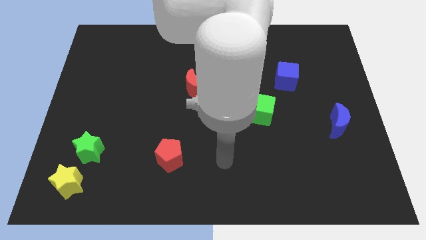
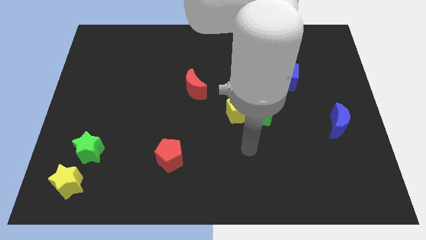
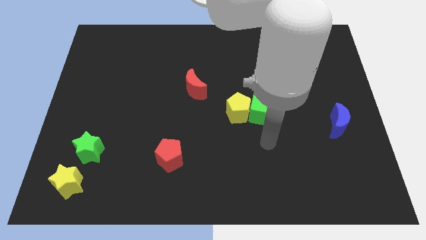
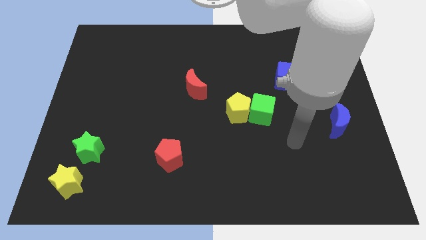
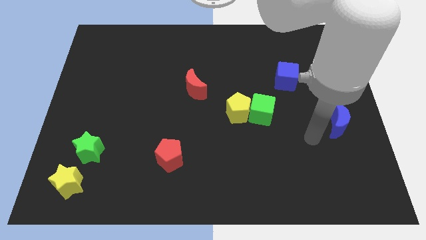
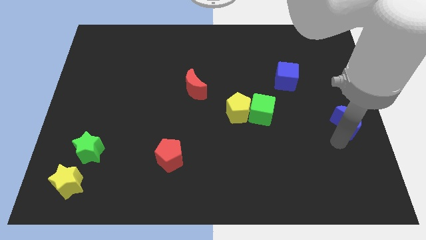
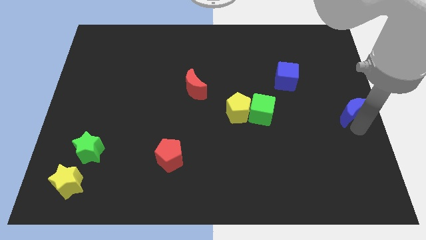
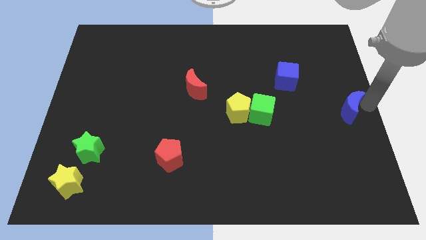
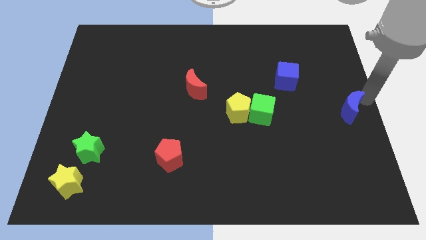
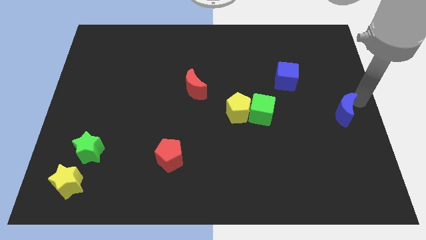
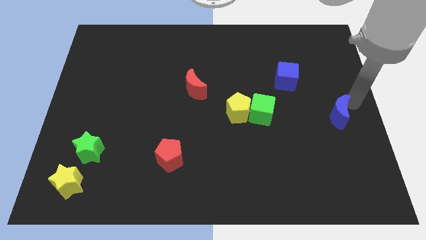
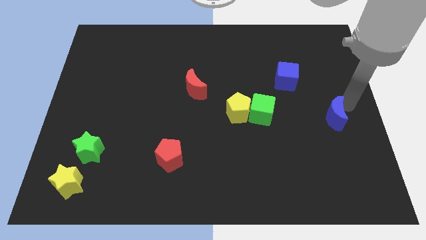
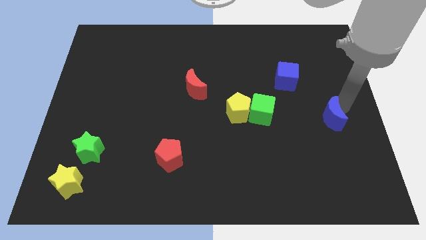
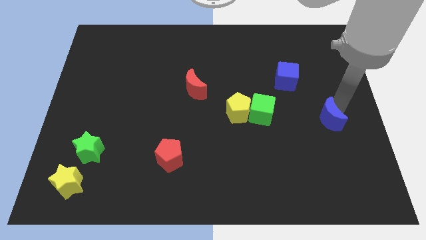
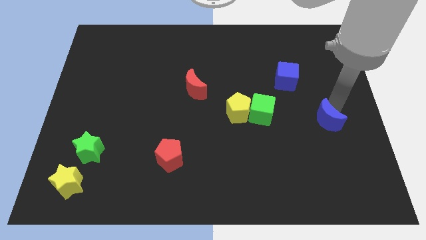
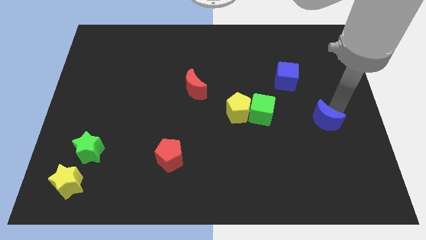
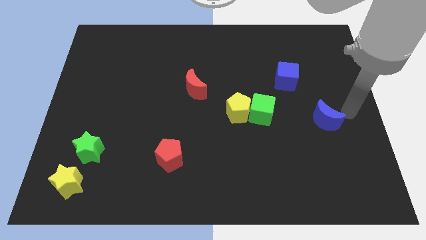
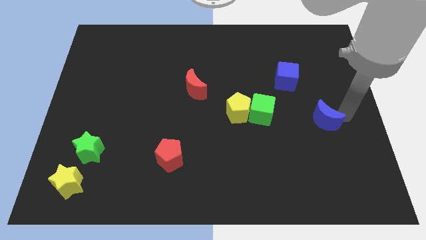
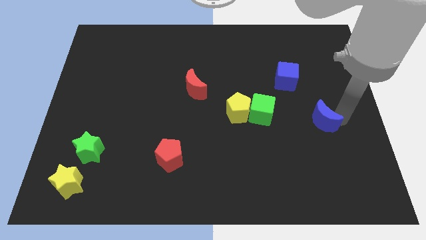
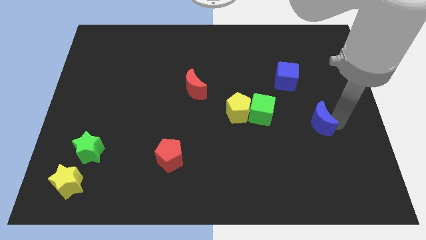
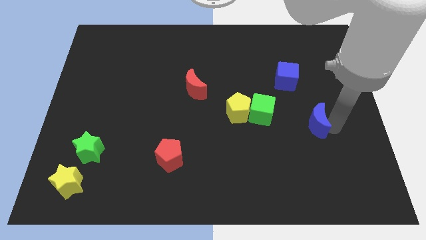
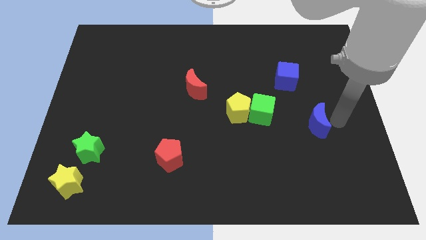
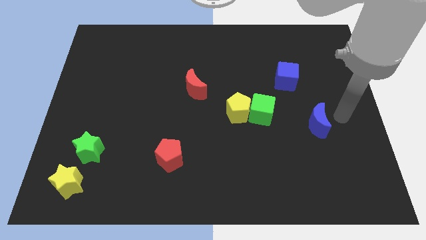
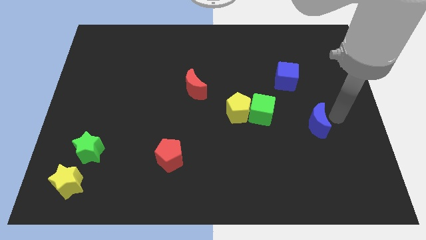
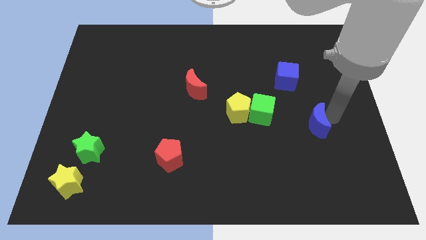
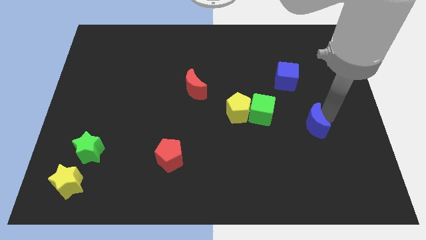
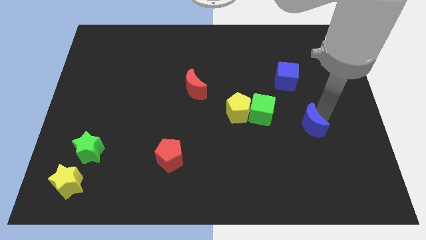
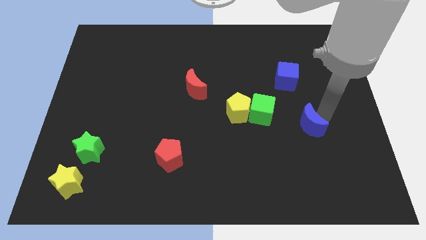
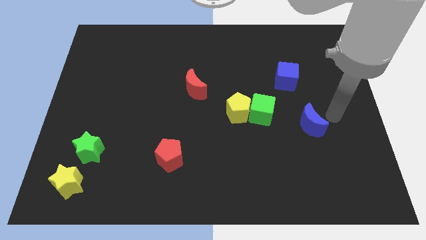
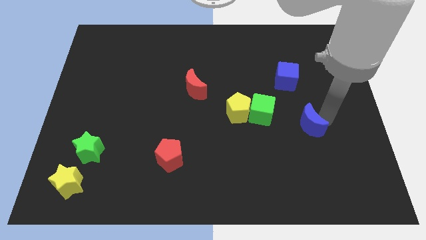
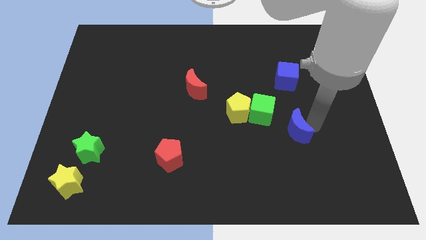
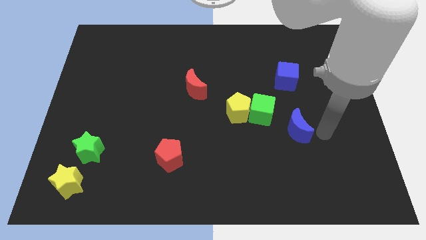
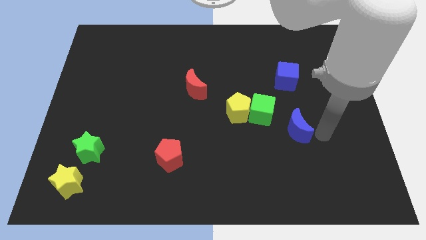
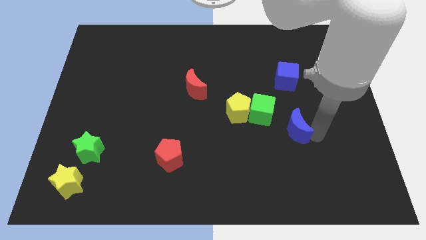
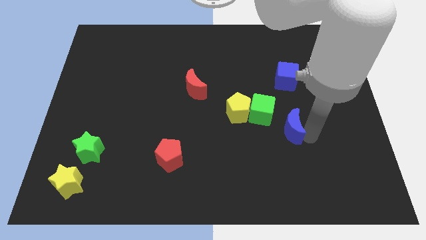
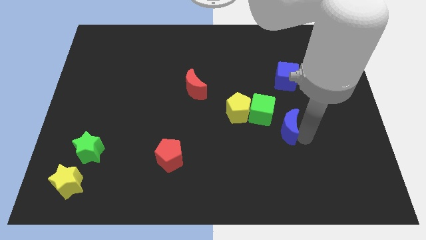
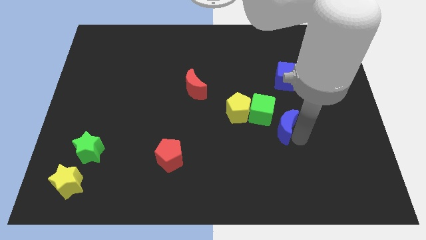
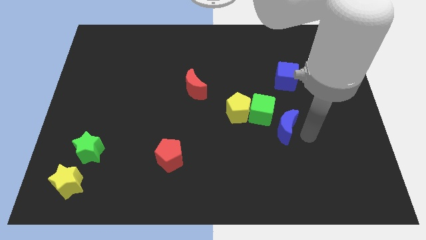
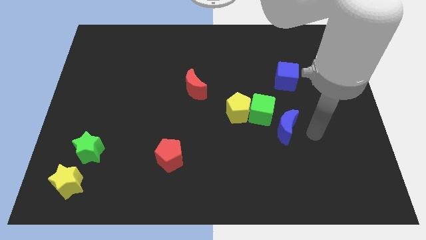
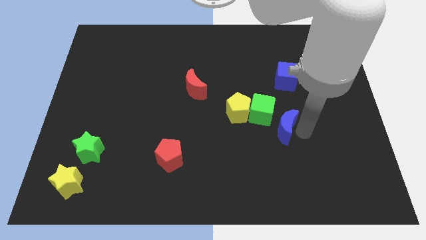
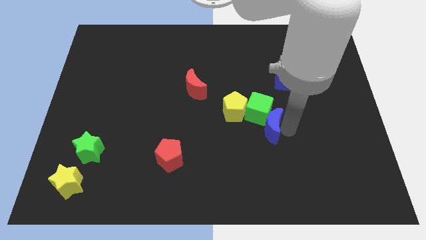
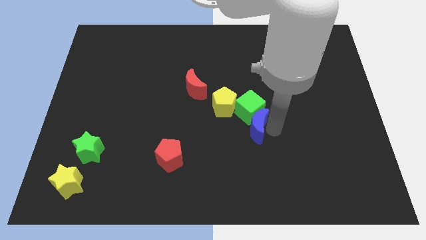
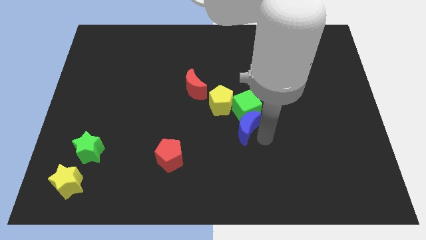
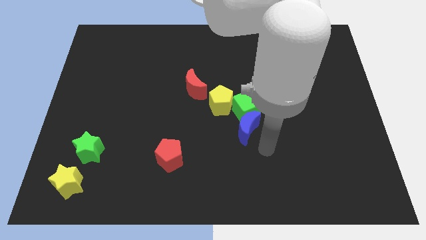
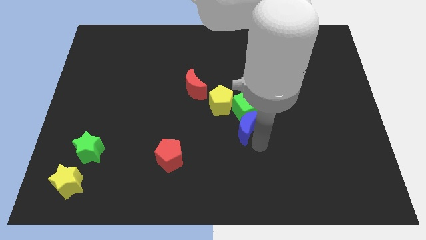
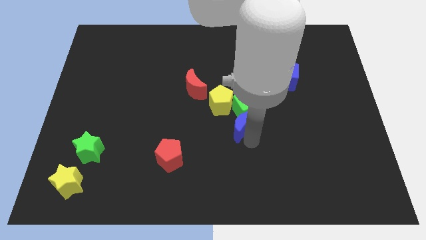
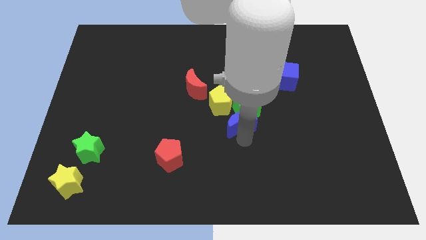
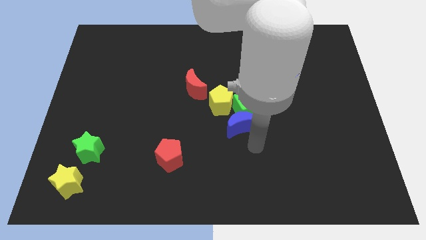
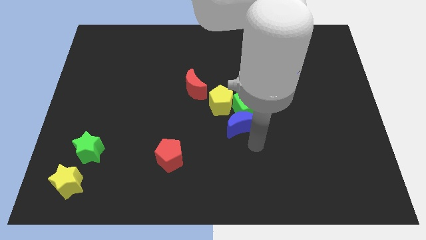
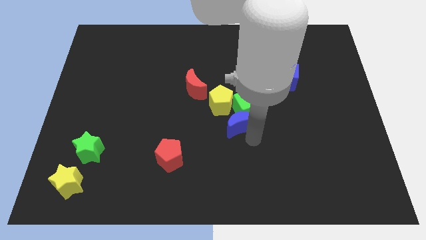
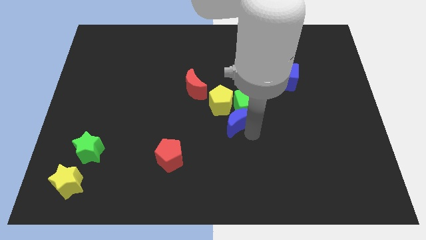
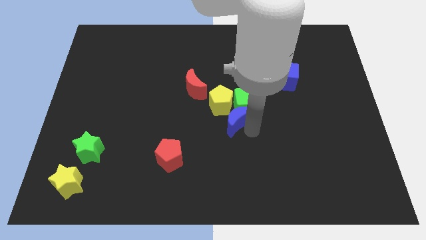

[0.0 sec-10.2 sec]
put the blue moon to the yellow pentagon

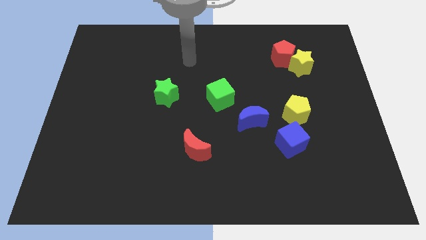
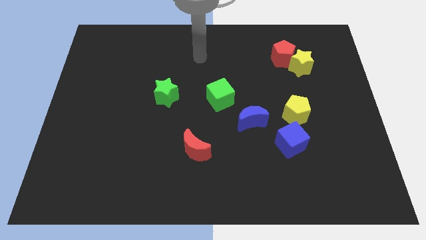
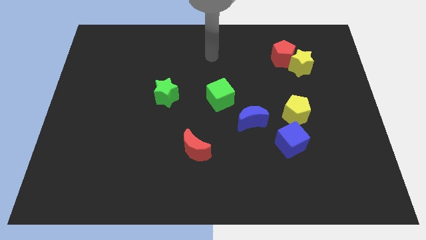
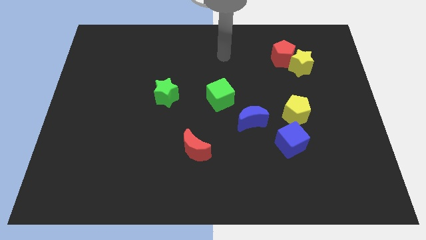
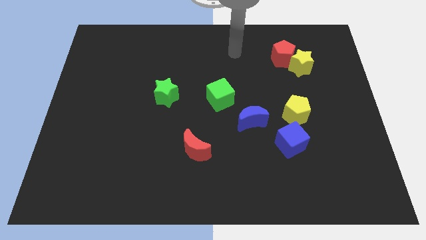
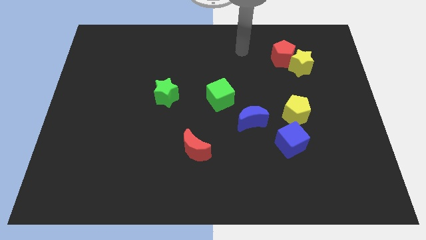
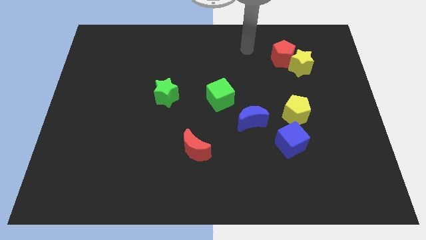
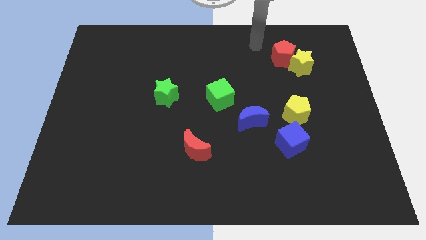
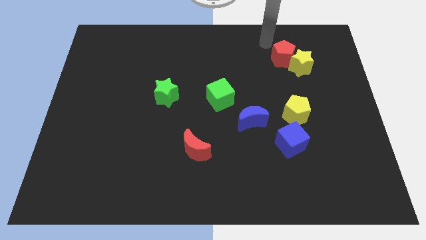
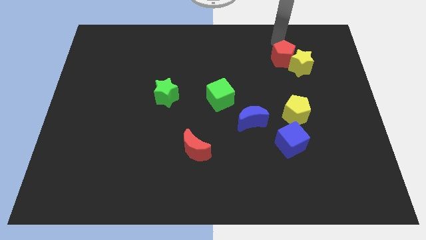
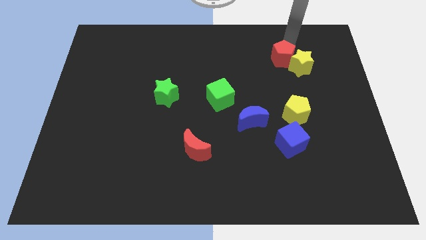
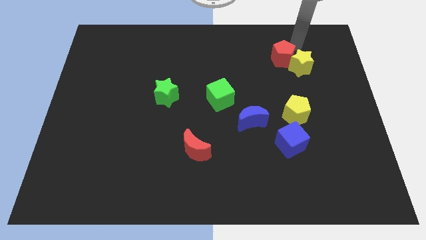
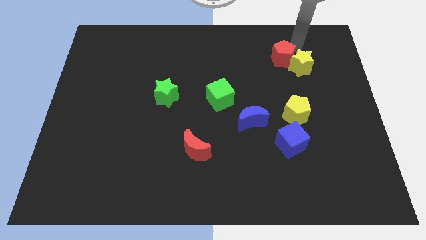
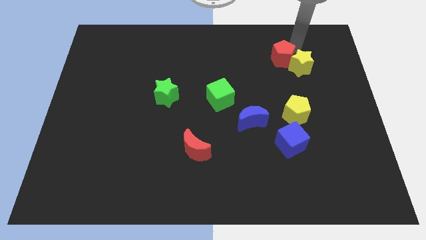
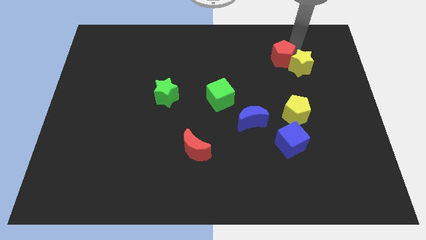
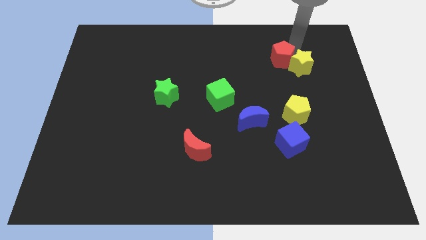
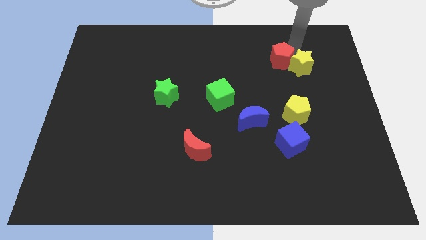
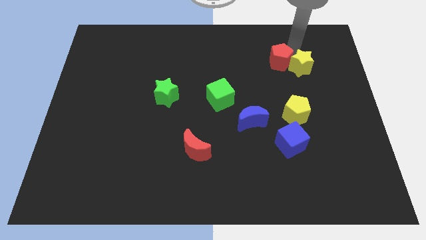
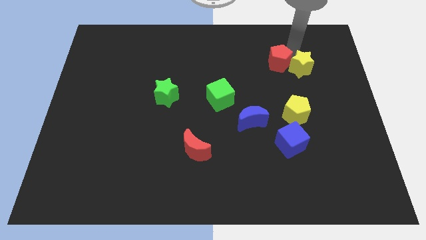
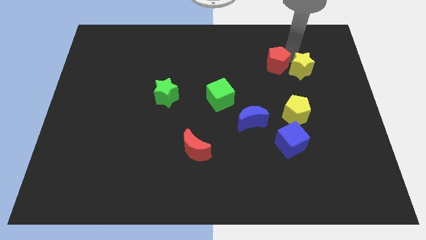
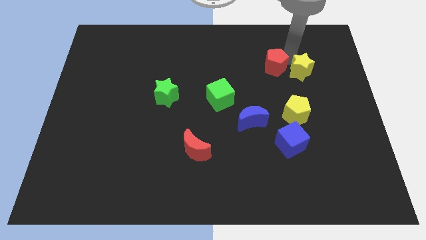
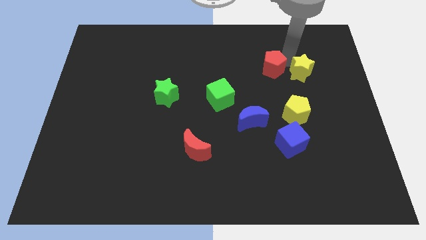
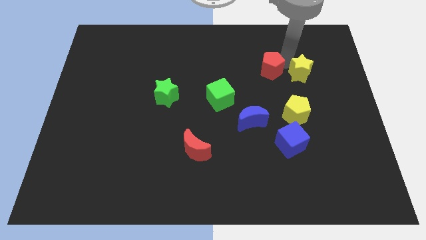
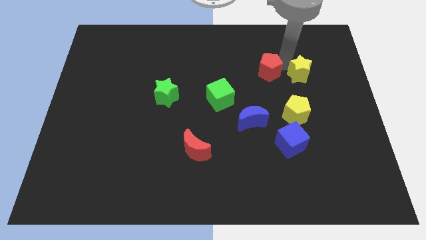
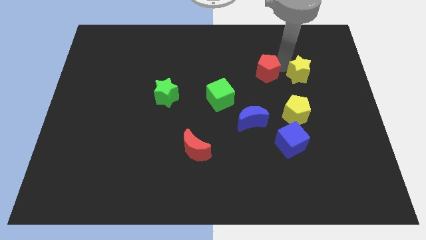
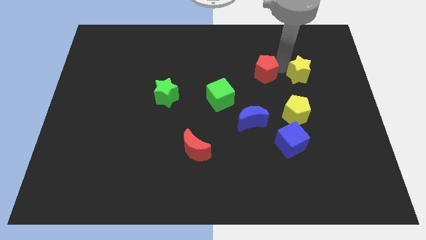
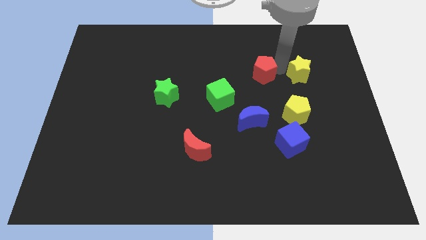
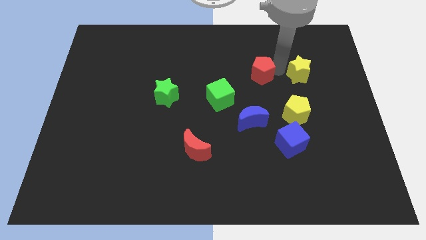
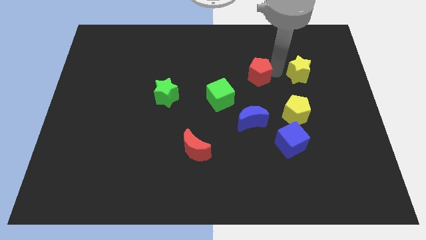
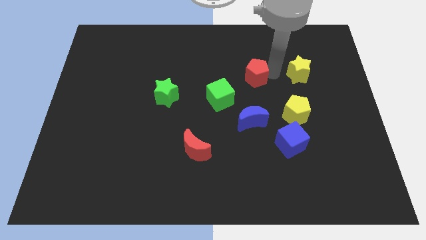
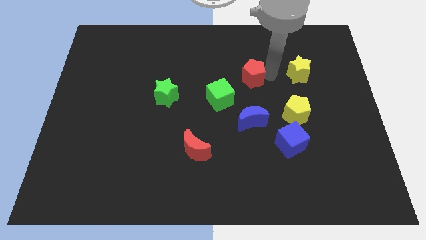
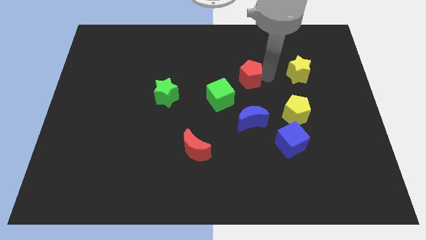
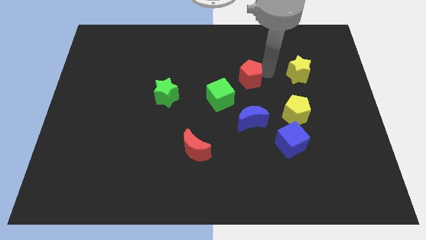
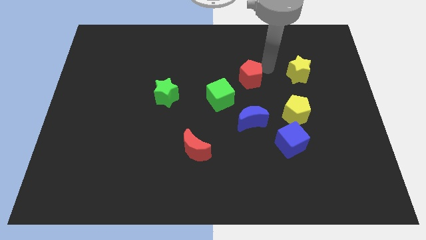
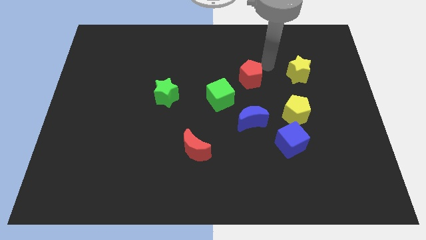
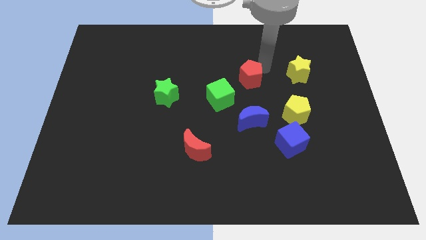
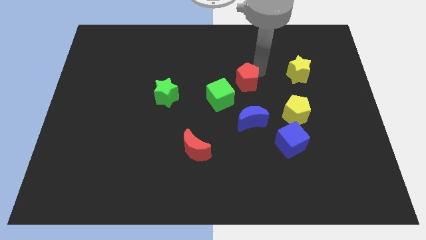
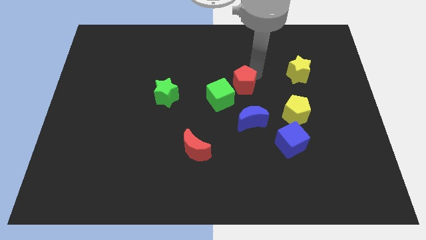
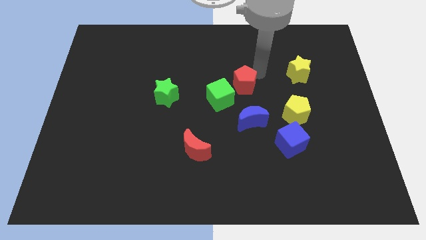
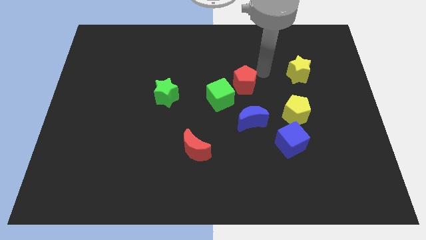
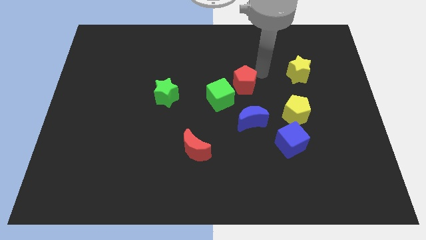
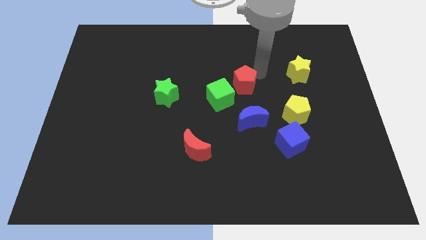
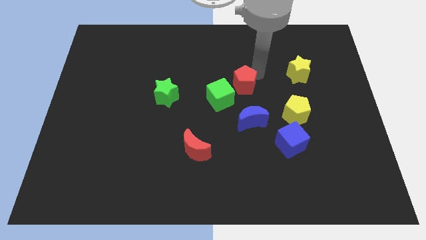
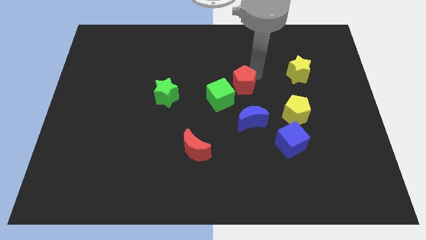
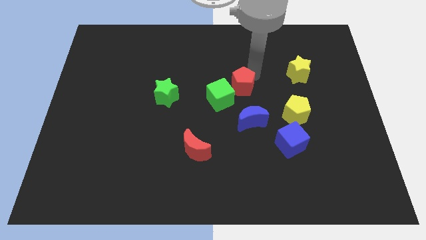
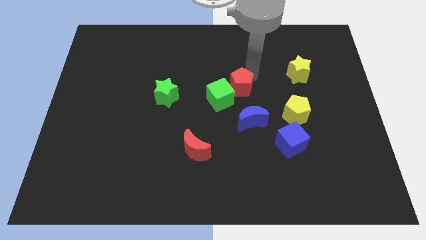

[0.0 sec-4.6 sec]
push the red pentagon towards the green cube
